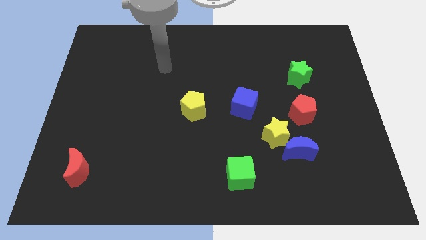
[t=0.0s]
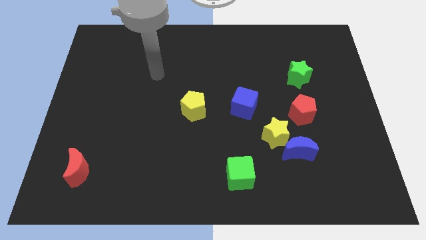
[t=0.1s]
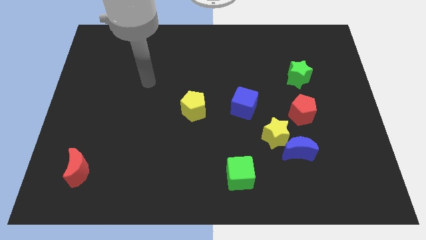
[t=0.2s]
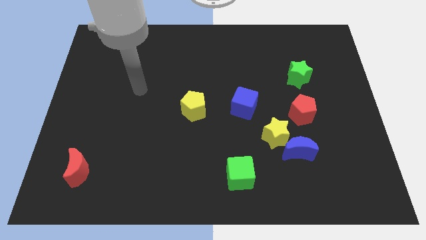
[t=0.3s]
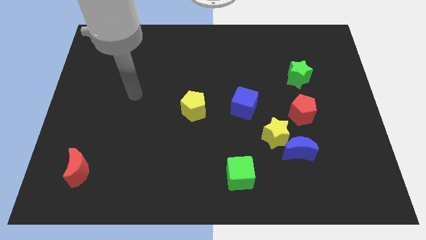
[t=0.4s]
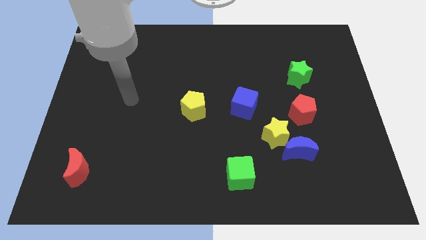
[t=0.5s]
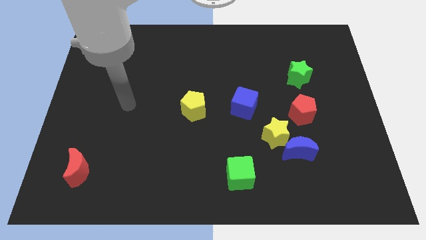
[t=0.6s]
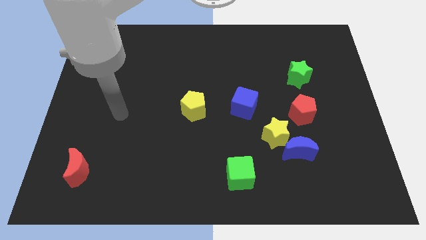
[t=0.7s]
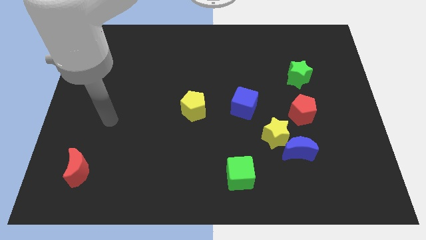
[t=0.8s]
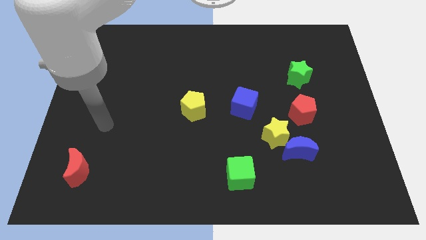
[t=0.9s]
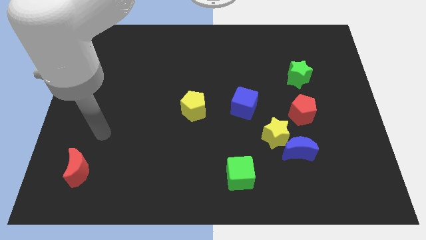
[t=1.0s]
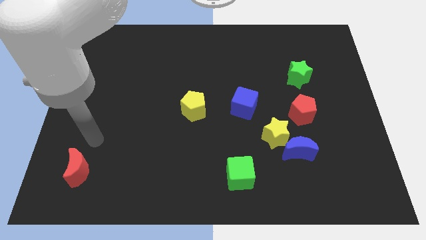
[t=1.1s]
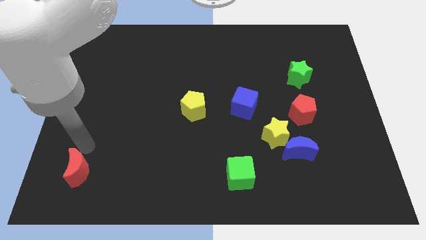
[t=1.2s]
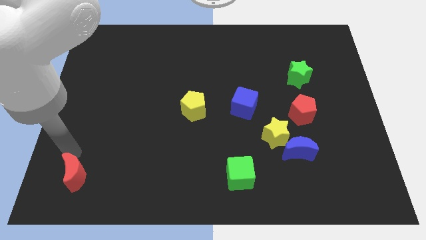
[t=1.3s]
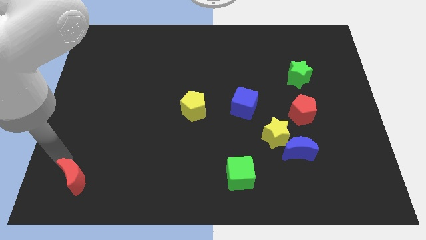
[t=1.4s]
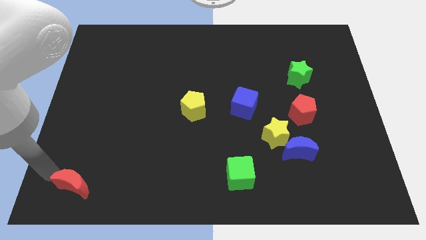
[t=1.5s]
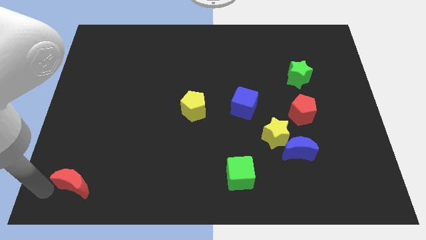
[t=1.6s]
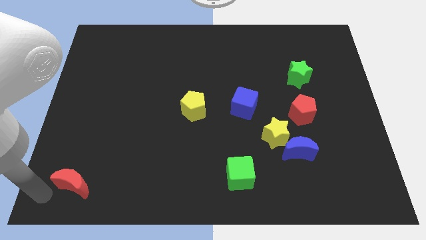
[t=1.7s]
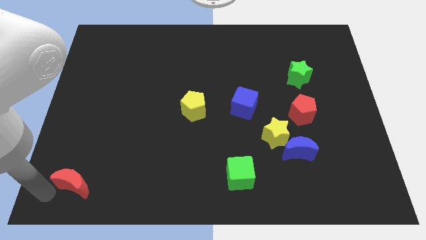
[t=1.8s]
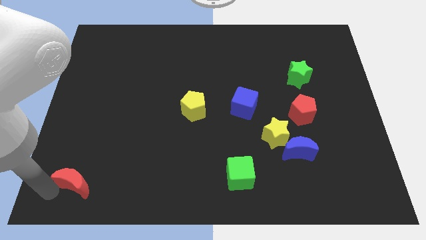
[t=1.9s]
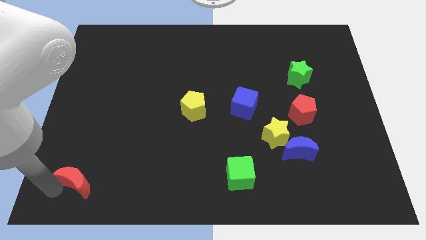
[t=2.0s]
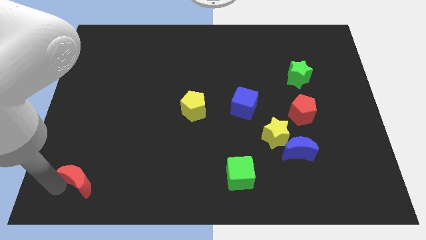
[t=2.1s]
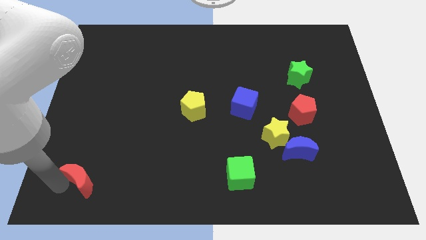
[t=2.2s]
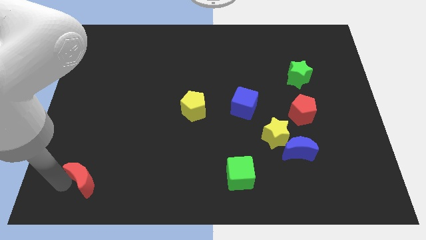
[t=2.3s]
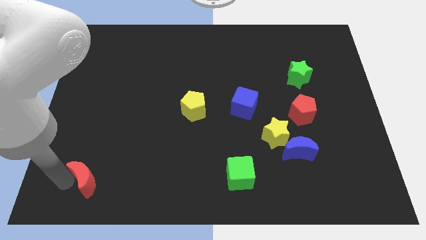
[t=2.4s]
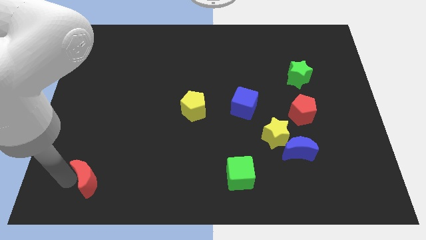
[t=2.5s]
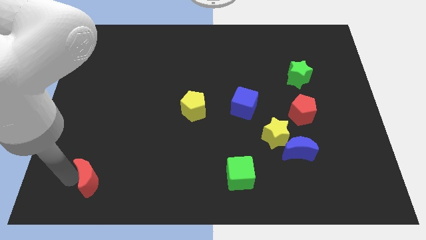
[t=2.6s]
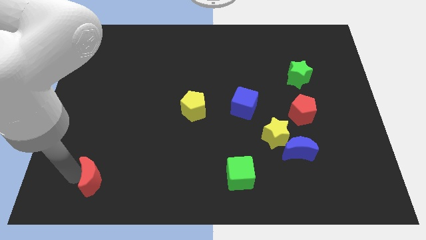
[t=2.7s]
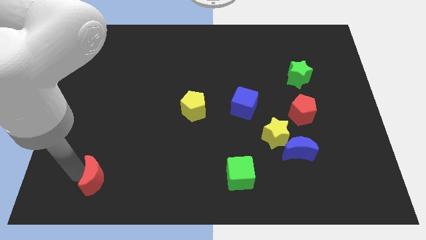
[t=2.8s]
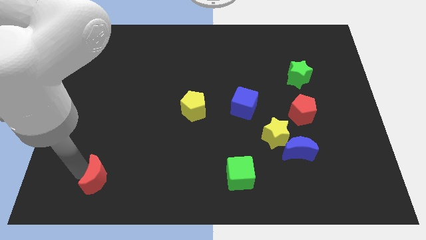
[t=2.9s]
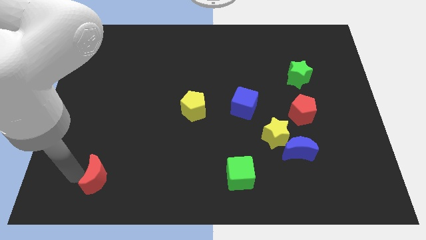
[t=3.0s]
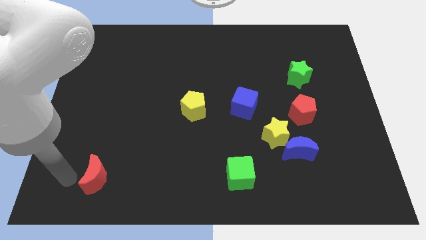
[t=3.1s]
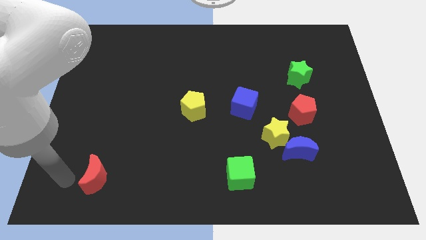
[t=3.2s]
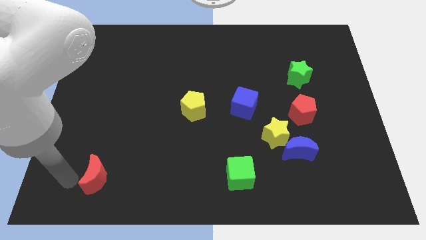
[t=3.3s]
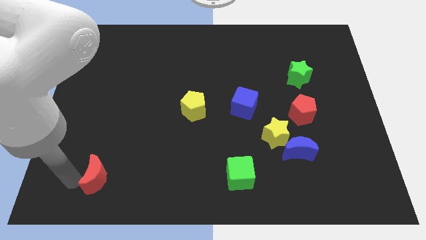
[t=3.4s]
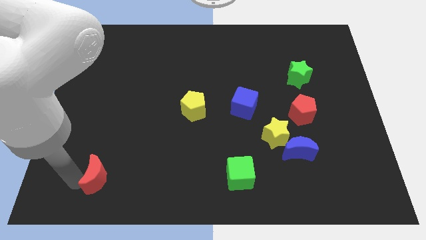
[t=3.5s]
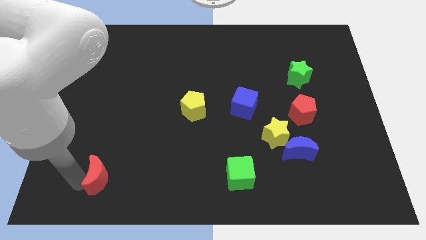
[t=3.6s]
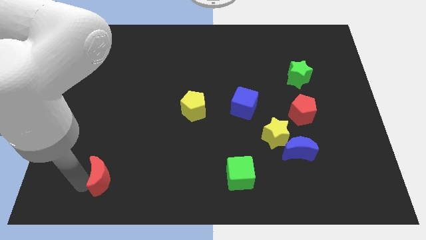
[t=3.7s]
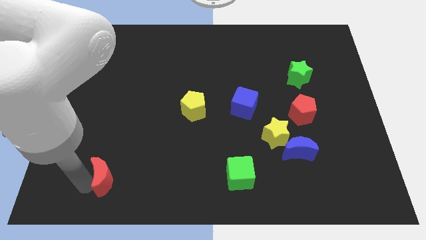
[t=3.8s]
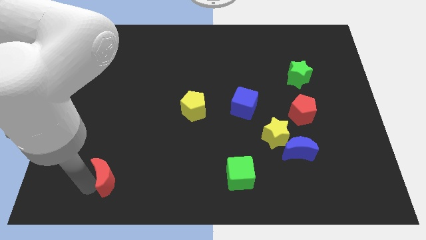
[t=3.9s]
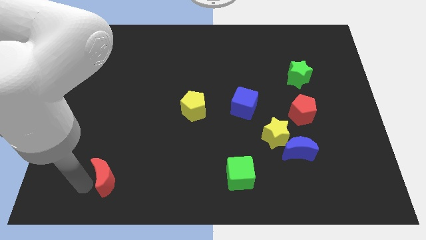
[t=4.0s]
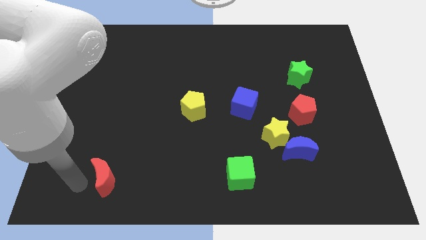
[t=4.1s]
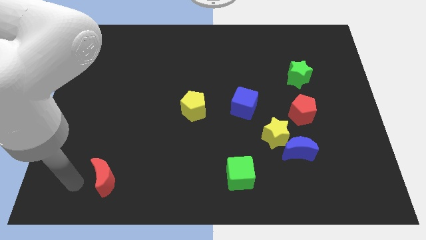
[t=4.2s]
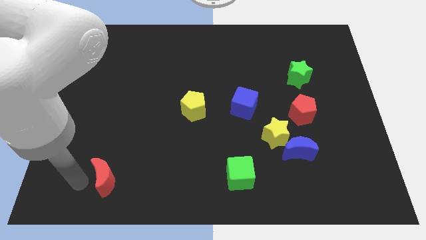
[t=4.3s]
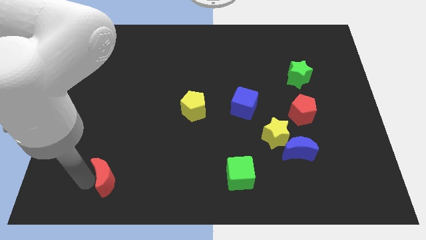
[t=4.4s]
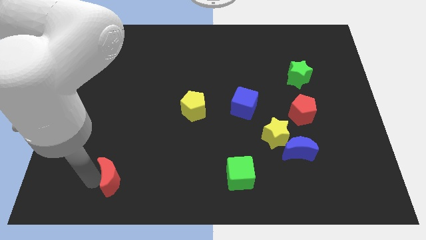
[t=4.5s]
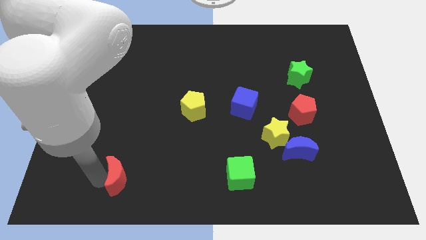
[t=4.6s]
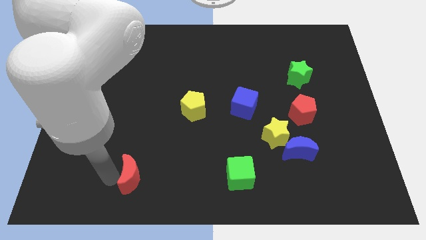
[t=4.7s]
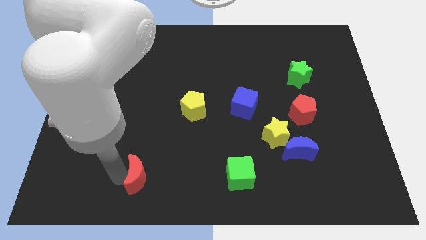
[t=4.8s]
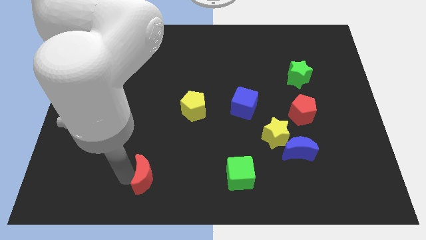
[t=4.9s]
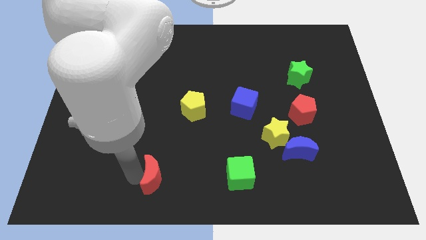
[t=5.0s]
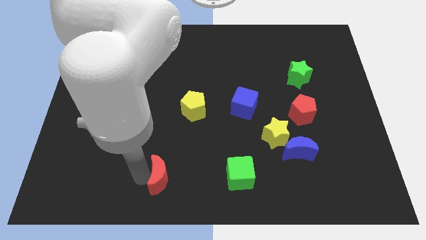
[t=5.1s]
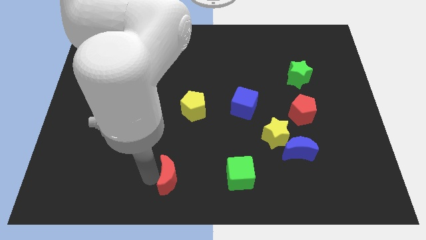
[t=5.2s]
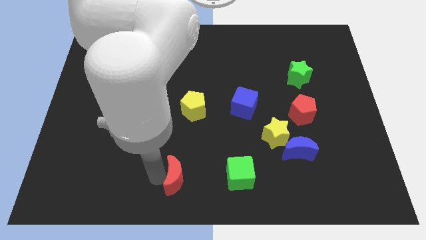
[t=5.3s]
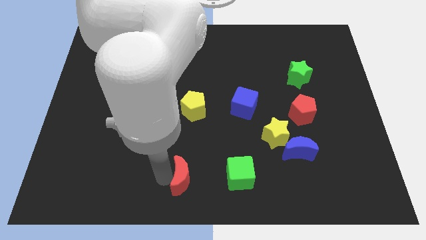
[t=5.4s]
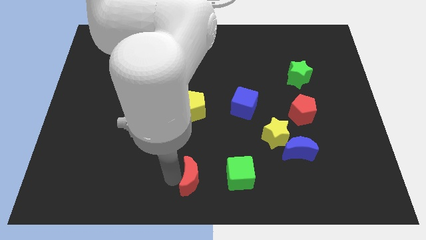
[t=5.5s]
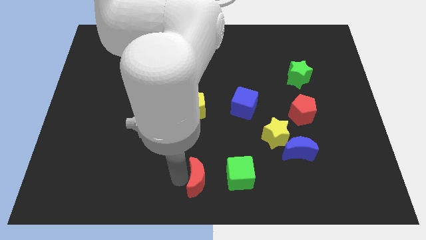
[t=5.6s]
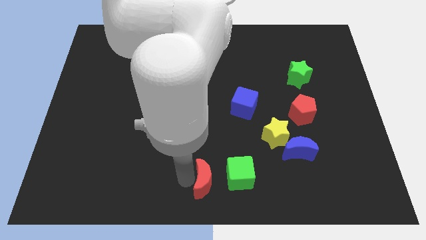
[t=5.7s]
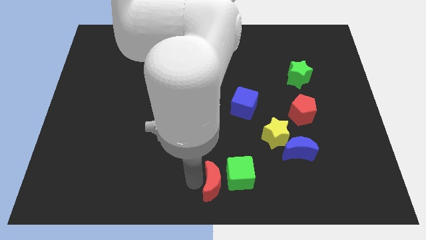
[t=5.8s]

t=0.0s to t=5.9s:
push the red moon close to the green cube

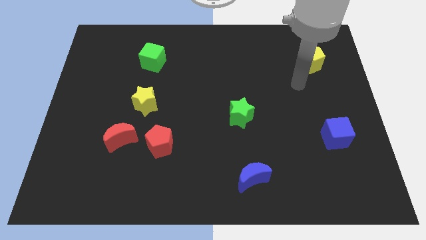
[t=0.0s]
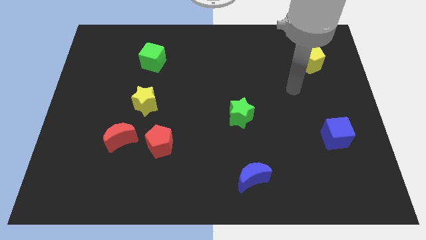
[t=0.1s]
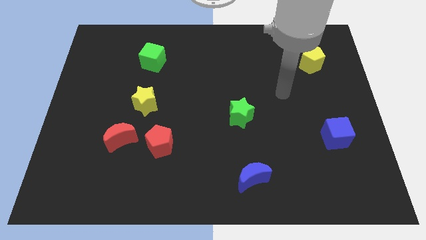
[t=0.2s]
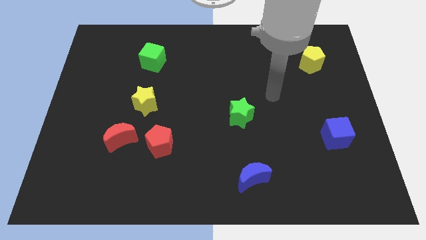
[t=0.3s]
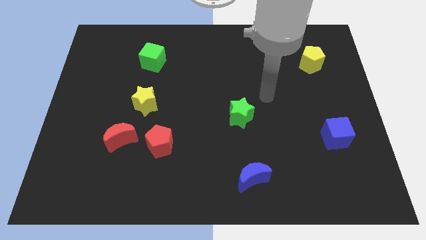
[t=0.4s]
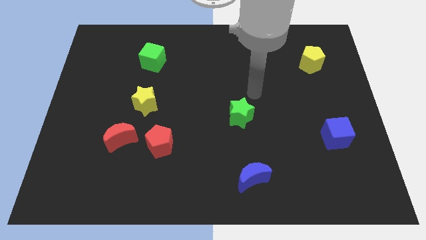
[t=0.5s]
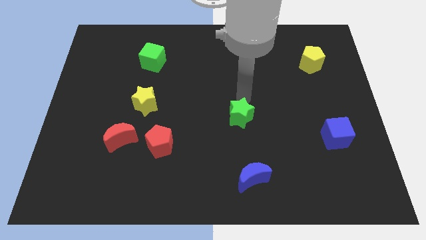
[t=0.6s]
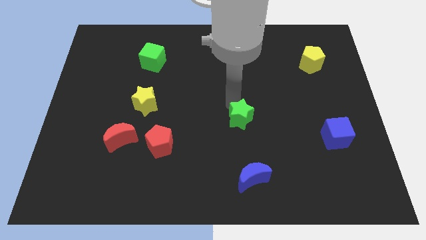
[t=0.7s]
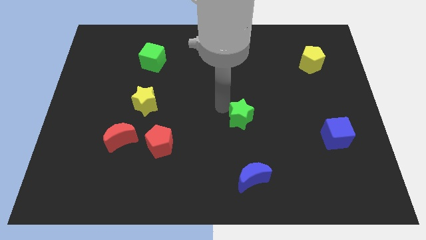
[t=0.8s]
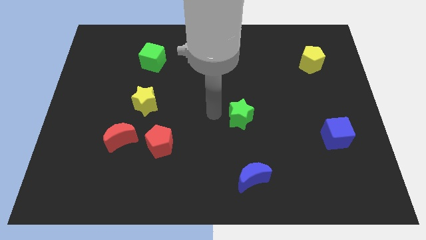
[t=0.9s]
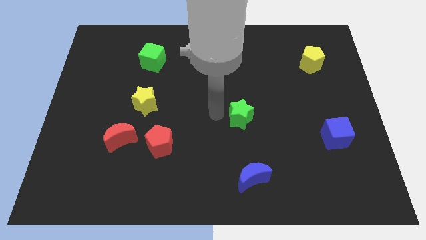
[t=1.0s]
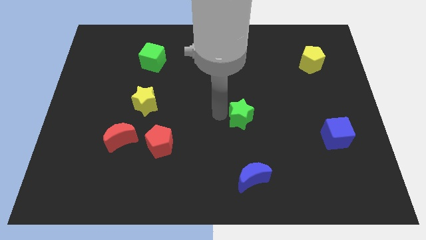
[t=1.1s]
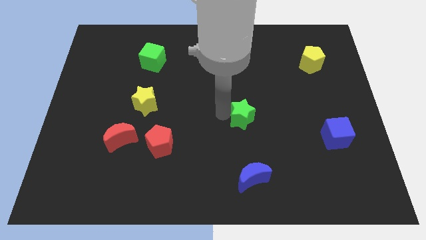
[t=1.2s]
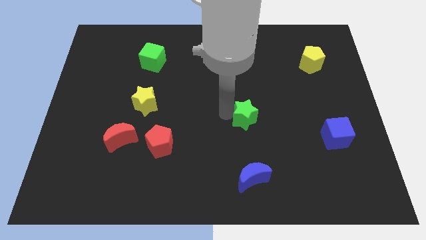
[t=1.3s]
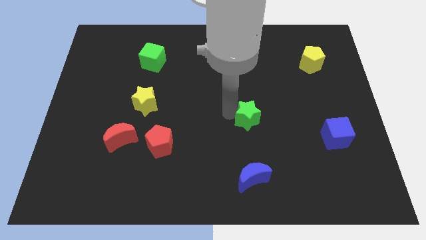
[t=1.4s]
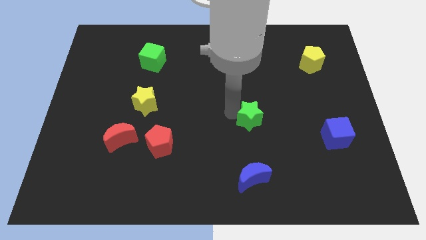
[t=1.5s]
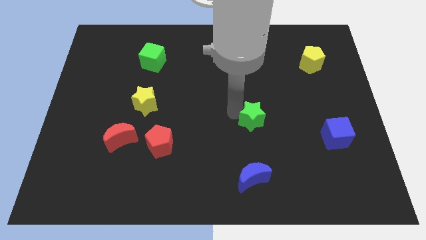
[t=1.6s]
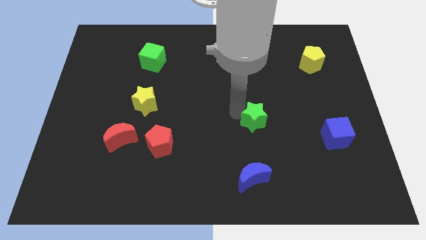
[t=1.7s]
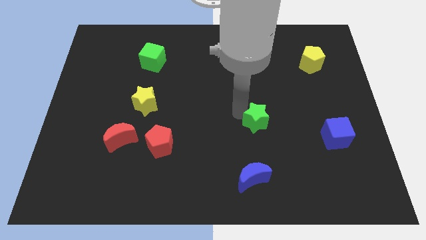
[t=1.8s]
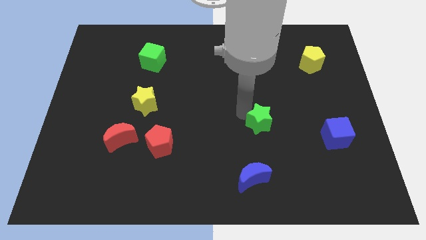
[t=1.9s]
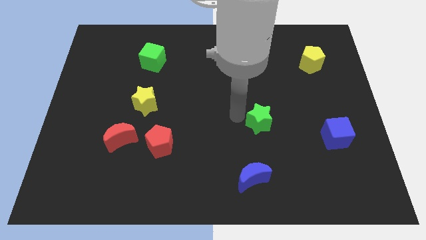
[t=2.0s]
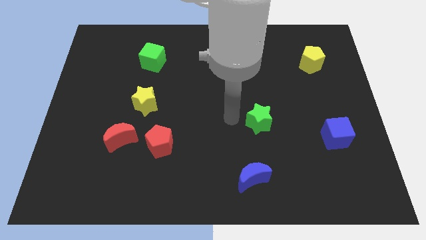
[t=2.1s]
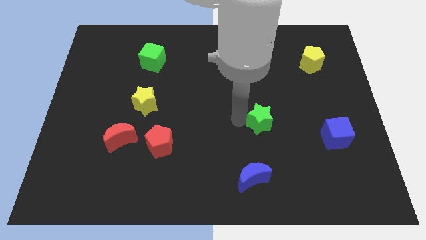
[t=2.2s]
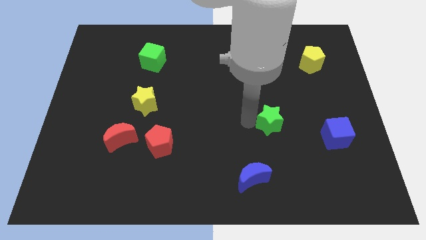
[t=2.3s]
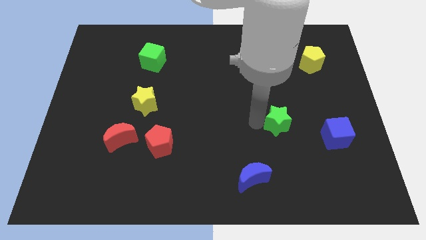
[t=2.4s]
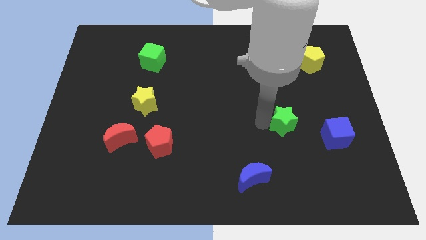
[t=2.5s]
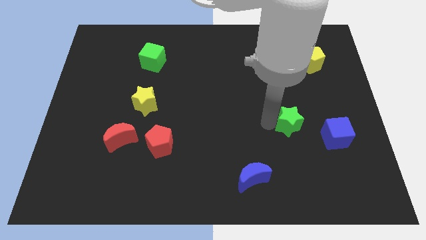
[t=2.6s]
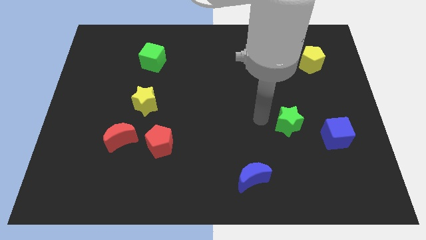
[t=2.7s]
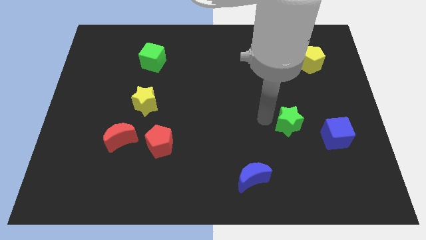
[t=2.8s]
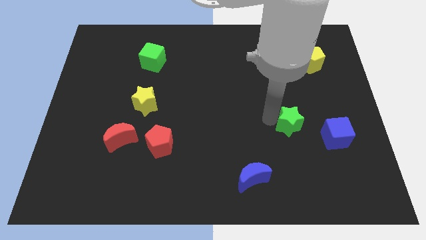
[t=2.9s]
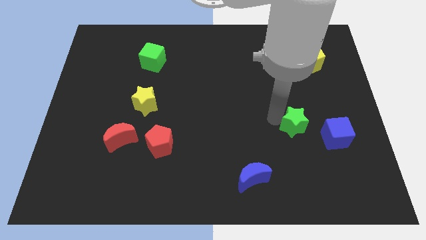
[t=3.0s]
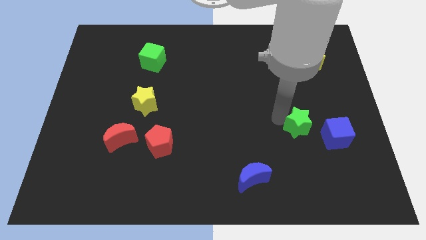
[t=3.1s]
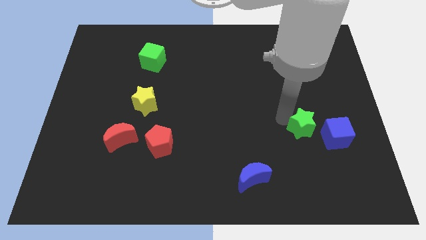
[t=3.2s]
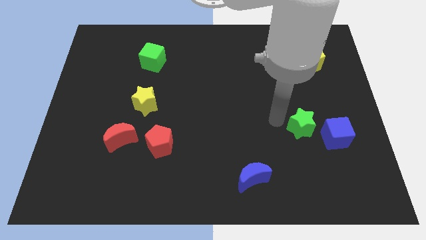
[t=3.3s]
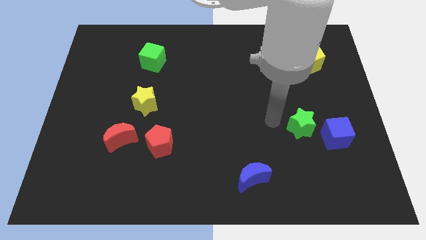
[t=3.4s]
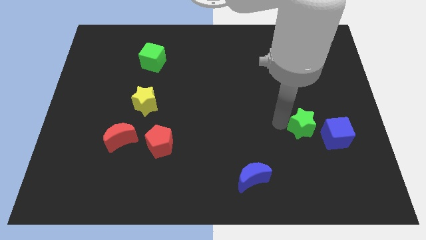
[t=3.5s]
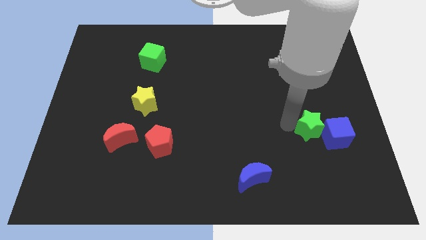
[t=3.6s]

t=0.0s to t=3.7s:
push the green star next to the blue cube
